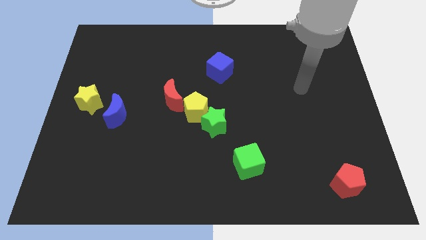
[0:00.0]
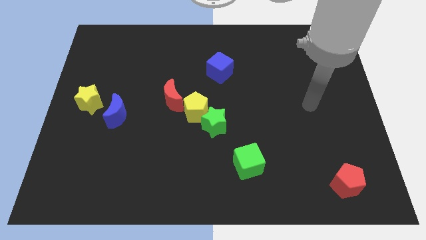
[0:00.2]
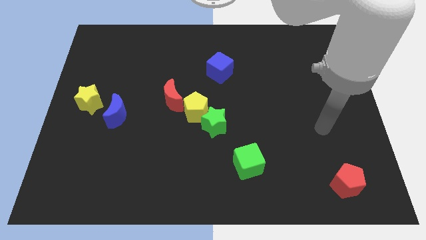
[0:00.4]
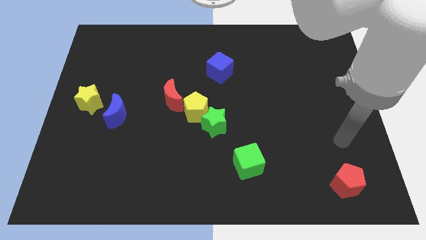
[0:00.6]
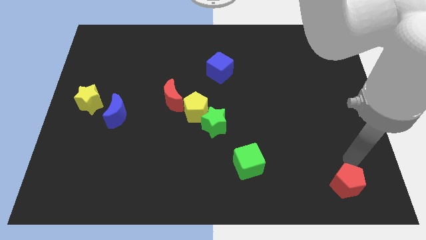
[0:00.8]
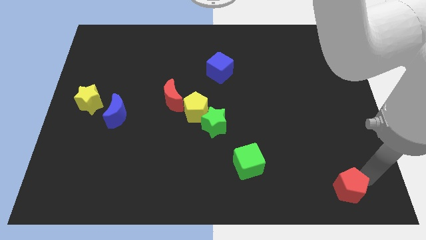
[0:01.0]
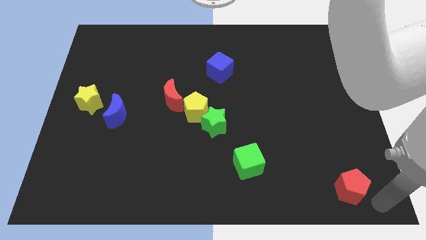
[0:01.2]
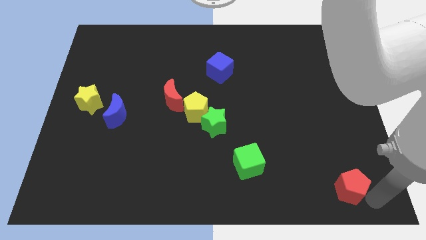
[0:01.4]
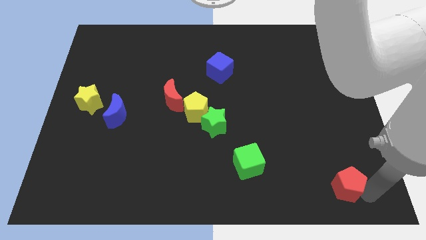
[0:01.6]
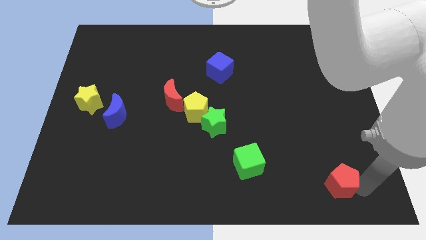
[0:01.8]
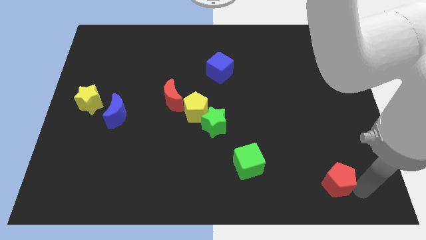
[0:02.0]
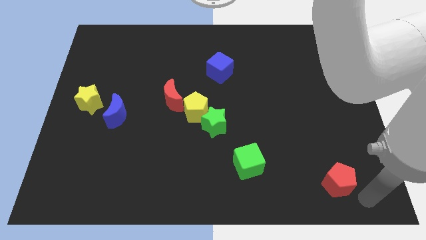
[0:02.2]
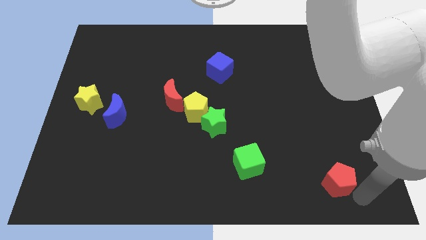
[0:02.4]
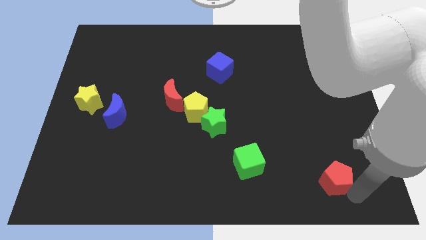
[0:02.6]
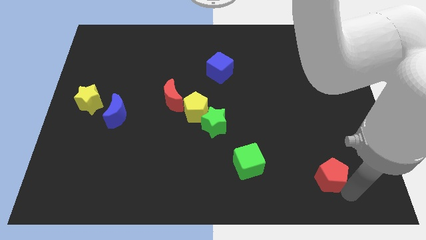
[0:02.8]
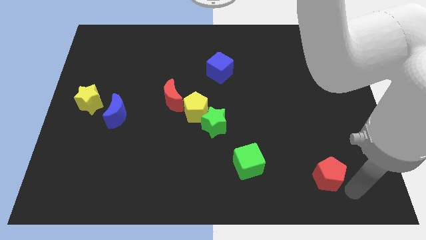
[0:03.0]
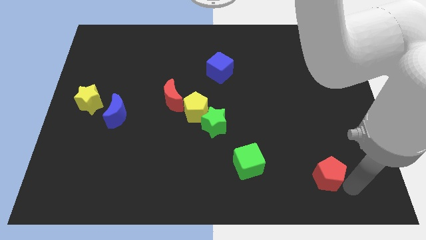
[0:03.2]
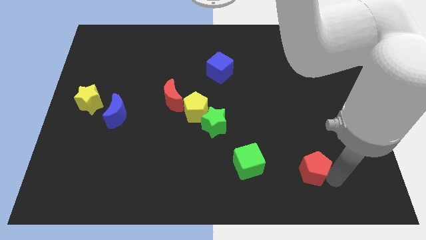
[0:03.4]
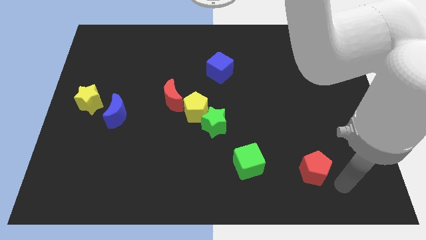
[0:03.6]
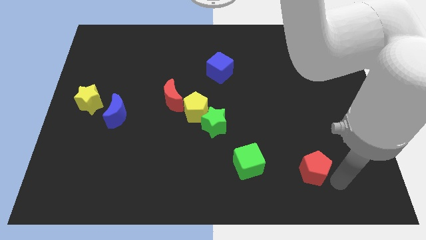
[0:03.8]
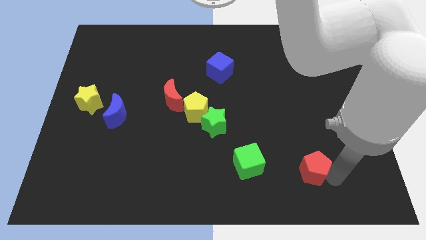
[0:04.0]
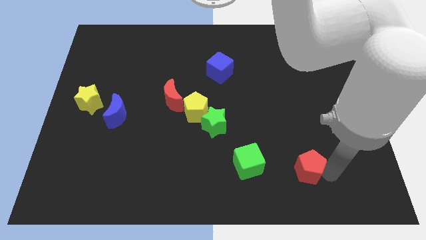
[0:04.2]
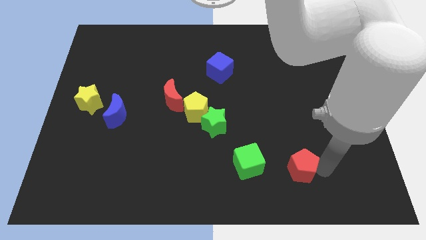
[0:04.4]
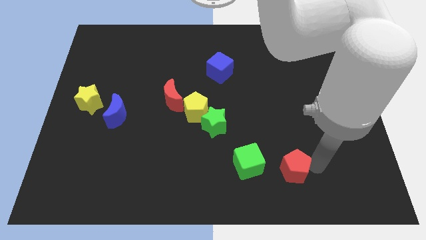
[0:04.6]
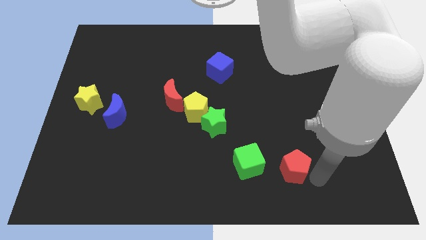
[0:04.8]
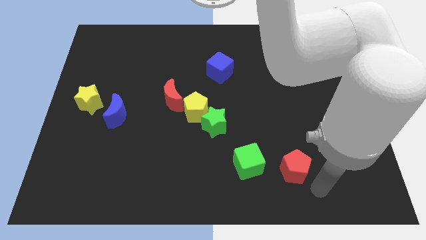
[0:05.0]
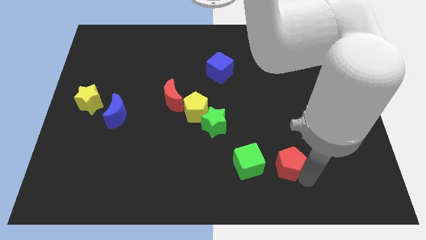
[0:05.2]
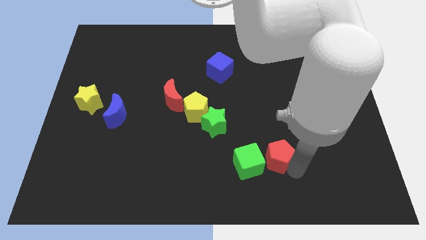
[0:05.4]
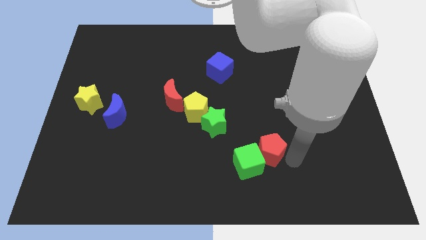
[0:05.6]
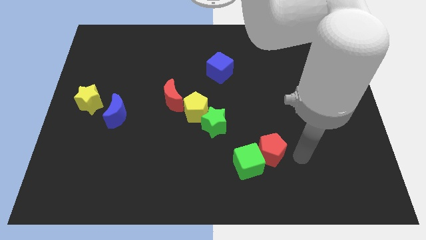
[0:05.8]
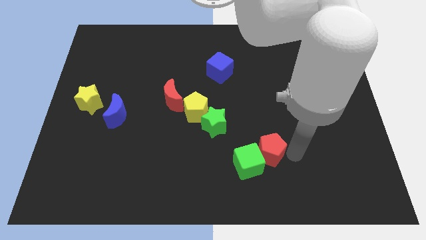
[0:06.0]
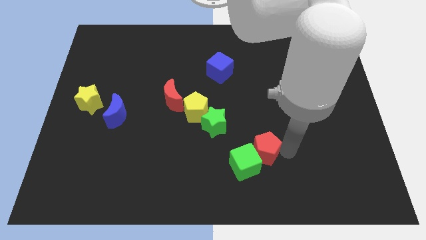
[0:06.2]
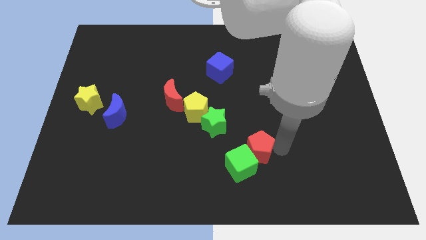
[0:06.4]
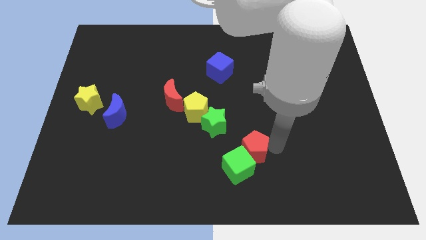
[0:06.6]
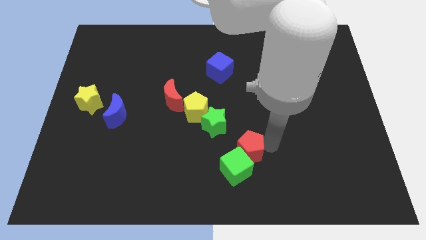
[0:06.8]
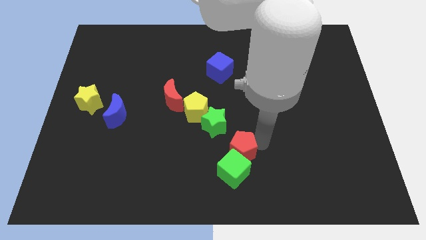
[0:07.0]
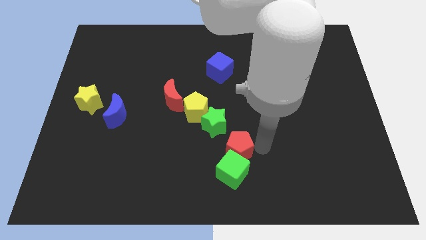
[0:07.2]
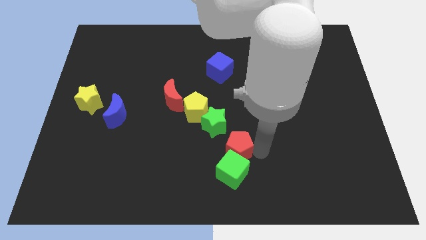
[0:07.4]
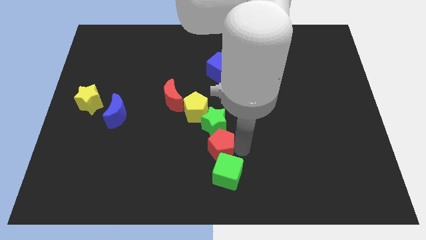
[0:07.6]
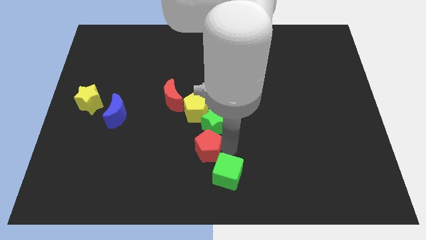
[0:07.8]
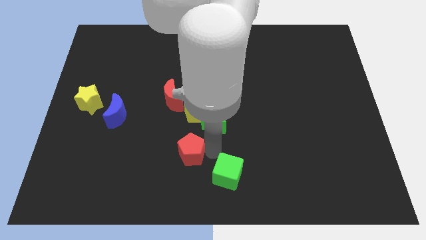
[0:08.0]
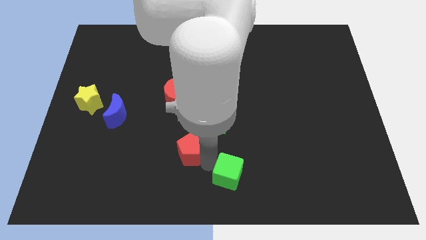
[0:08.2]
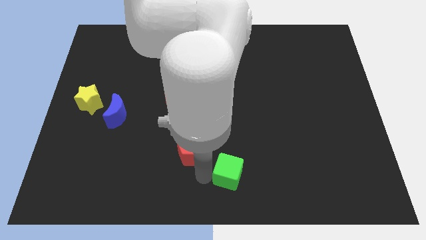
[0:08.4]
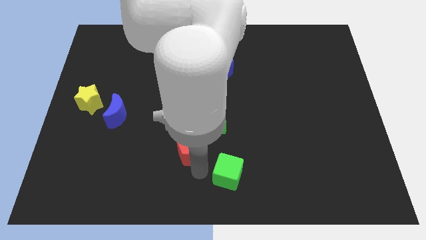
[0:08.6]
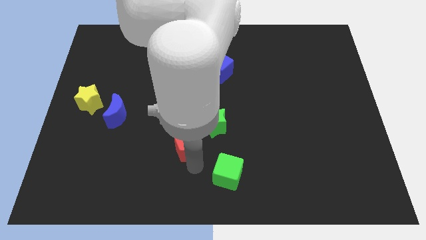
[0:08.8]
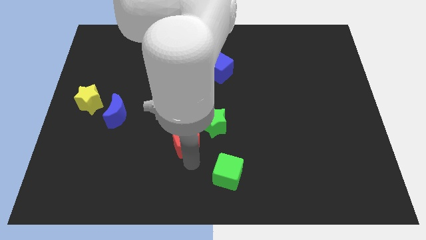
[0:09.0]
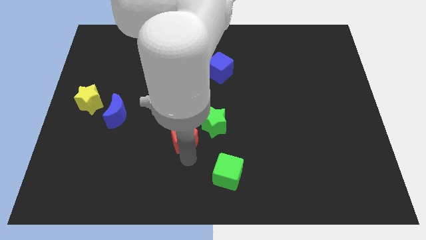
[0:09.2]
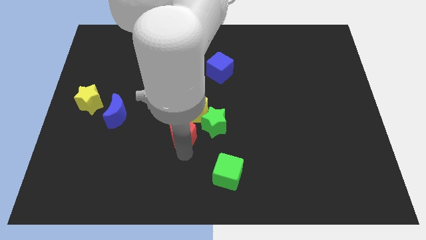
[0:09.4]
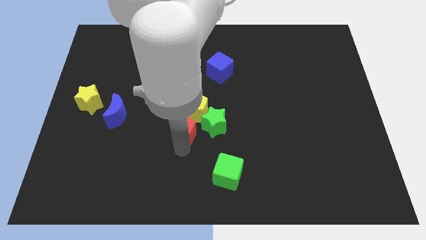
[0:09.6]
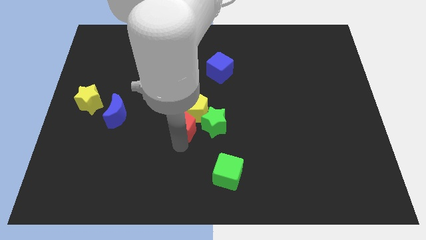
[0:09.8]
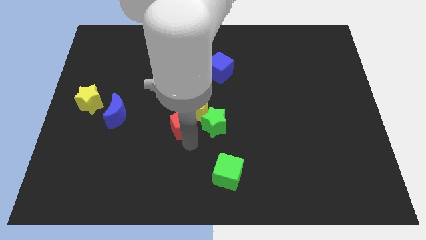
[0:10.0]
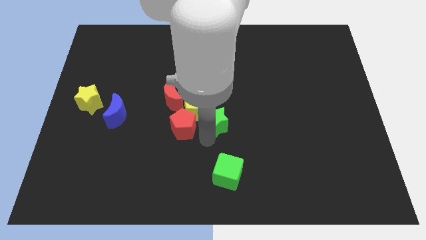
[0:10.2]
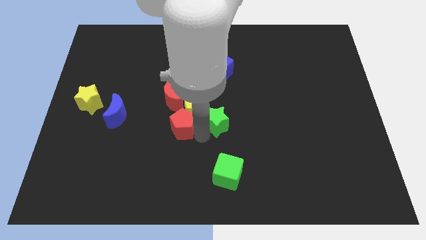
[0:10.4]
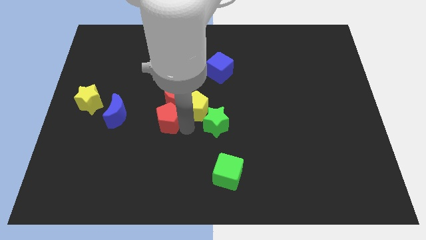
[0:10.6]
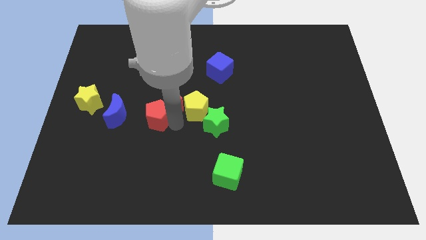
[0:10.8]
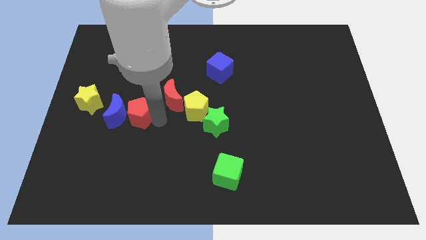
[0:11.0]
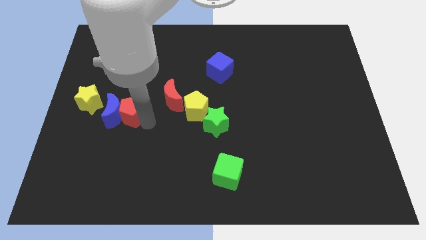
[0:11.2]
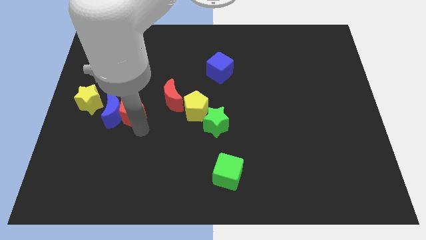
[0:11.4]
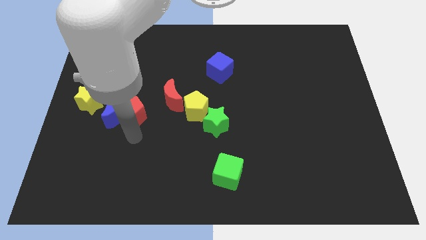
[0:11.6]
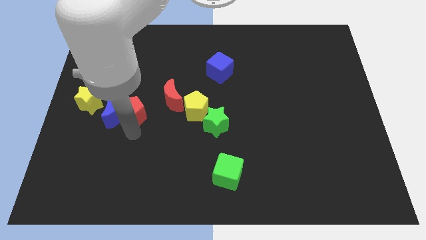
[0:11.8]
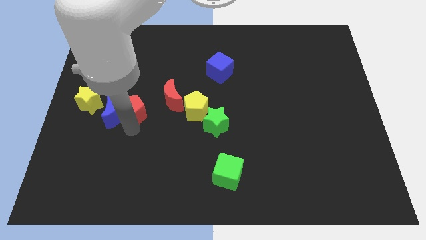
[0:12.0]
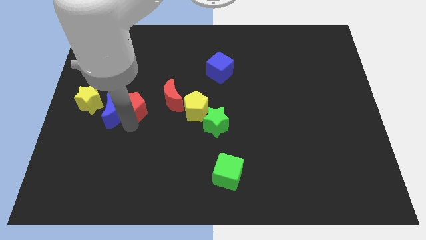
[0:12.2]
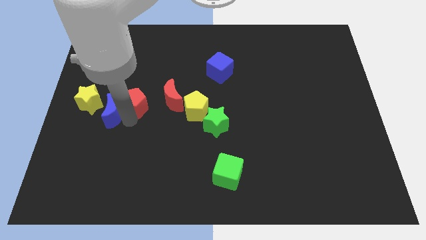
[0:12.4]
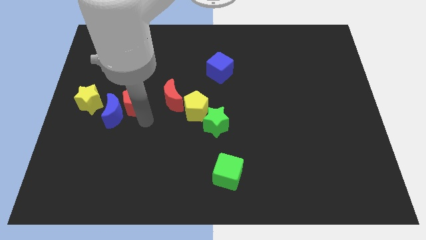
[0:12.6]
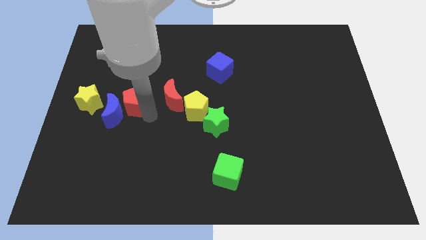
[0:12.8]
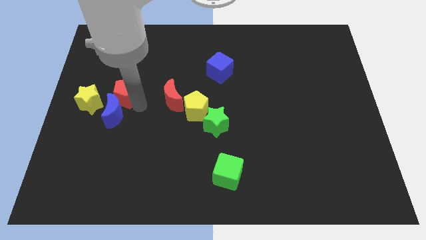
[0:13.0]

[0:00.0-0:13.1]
slide the red pentagon to the top right side of the yellow star
